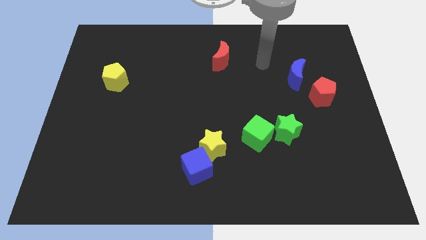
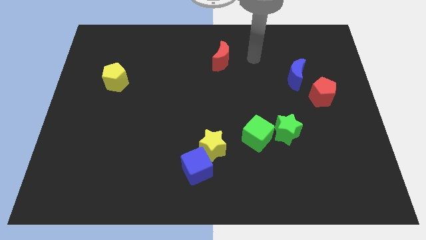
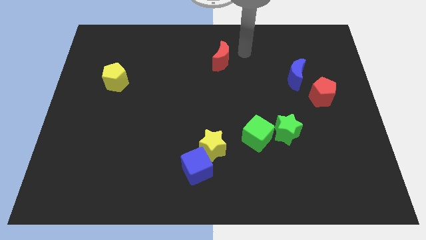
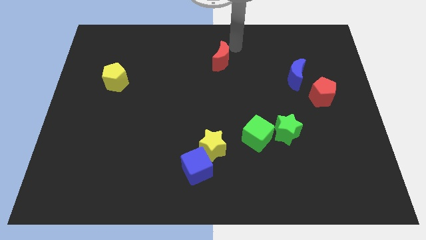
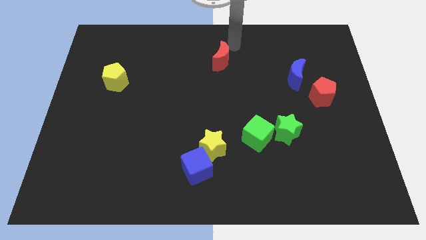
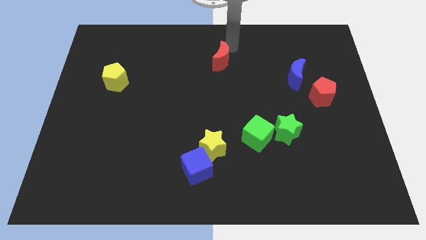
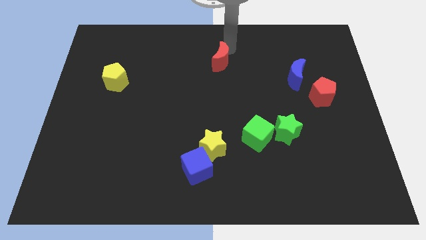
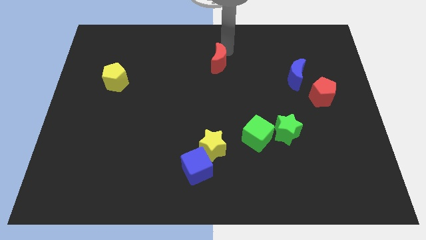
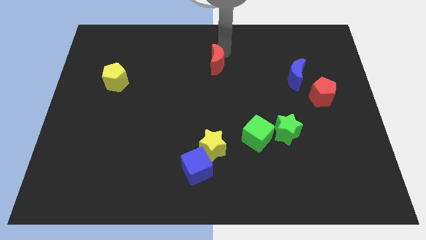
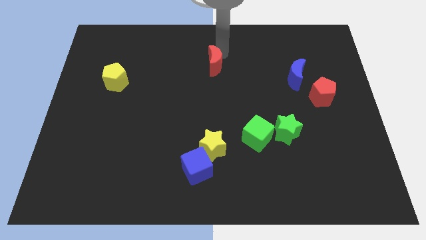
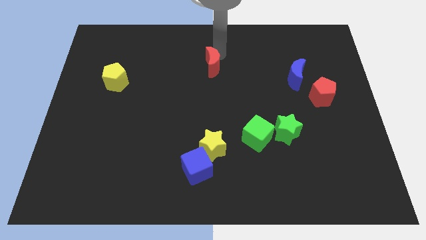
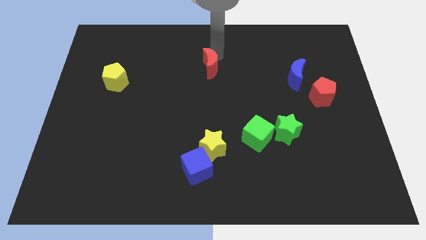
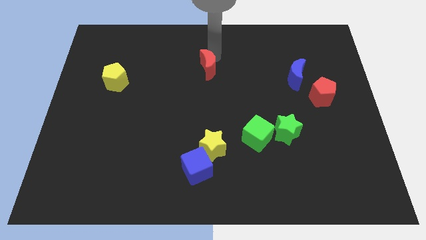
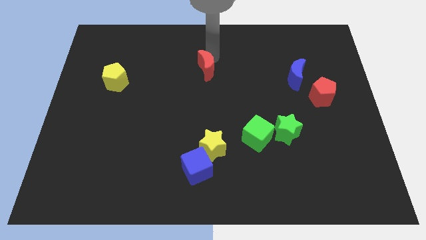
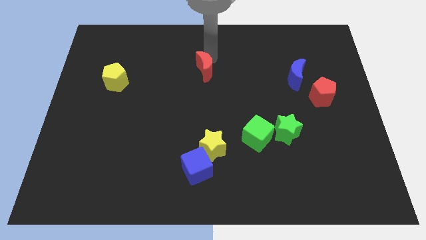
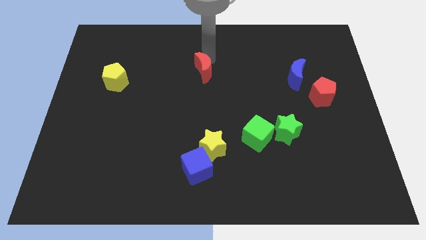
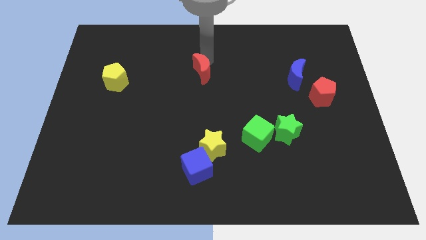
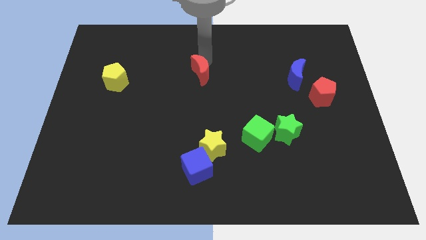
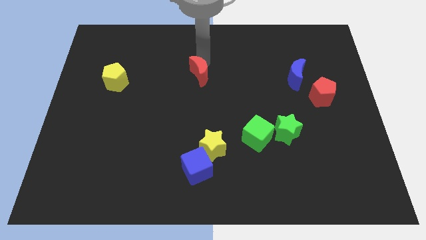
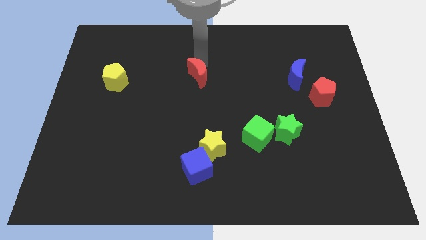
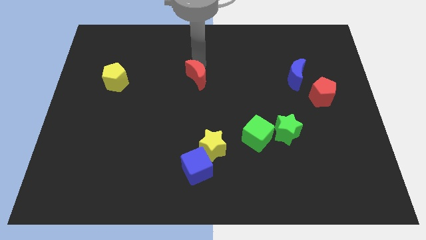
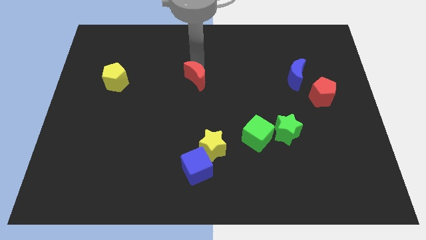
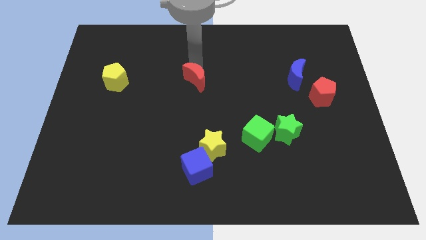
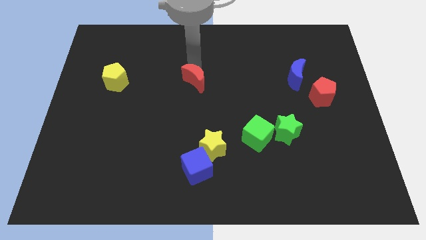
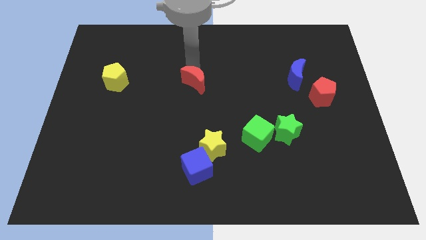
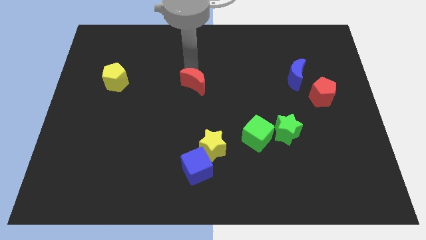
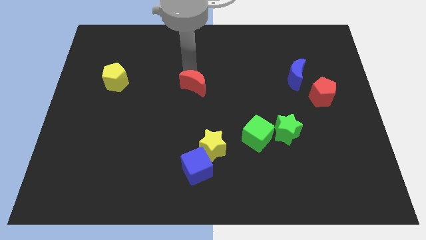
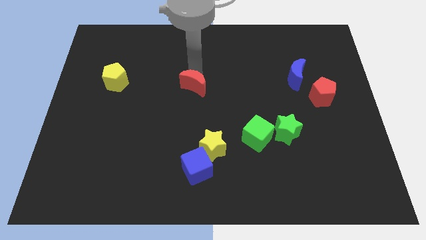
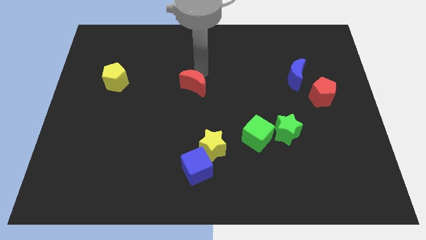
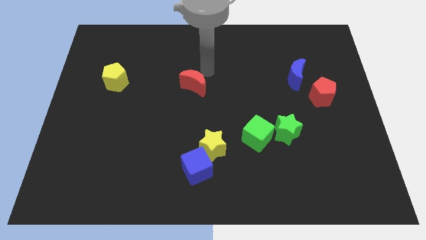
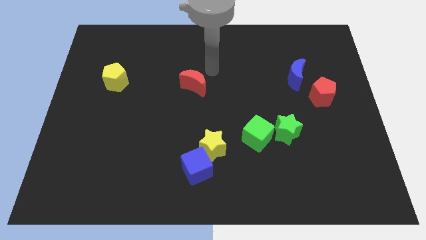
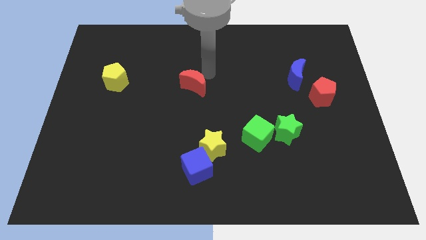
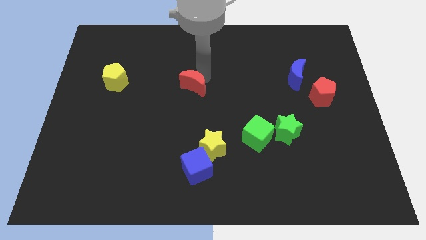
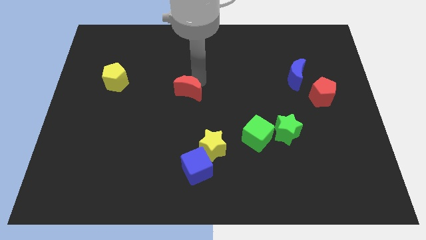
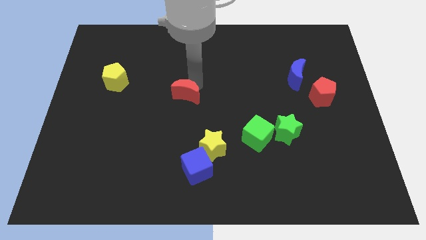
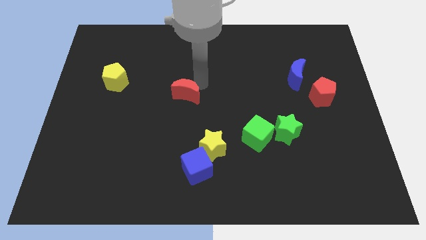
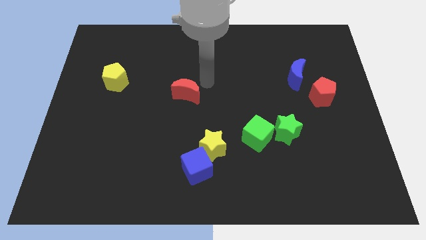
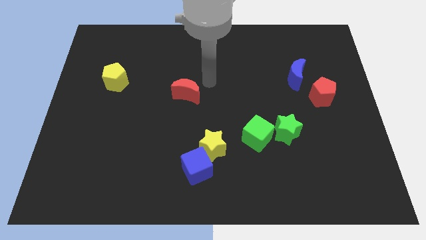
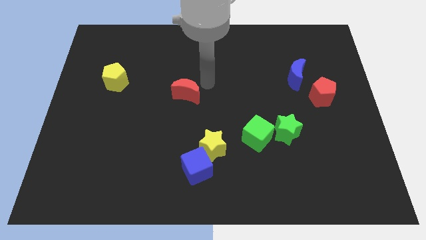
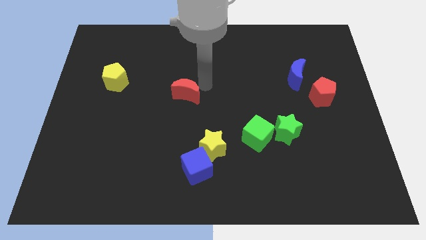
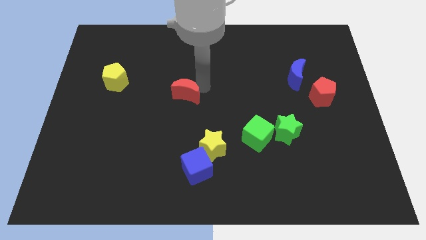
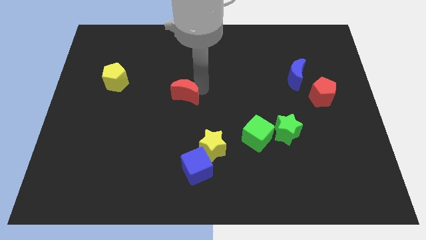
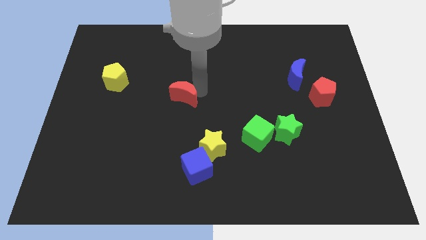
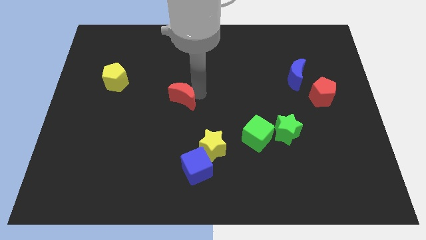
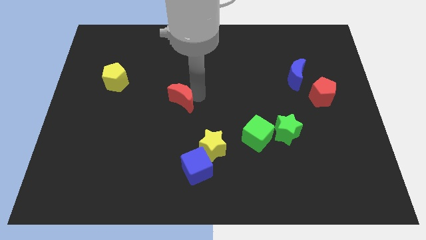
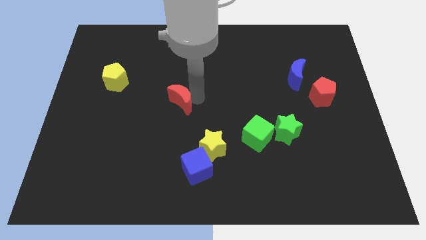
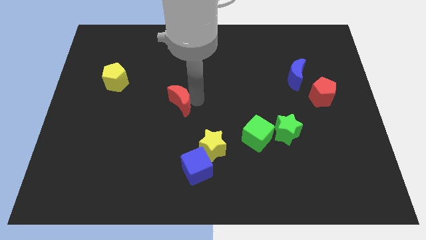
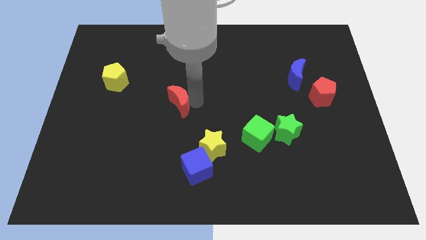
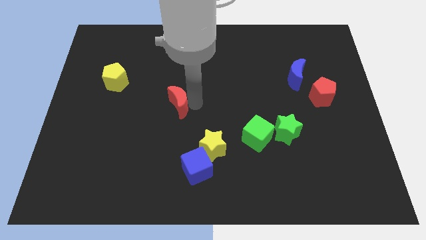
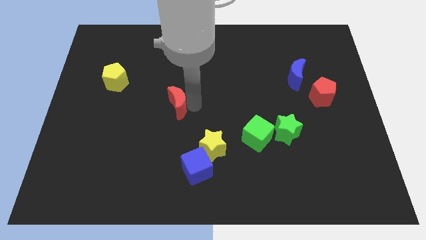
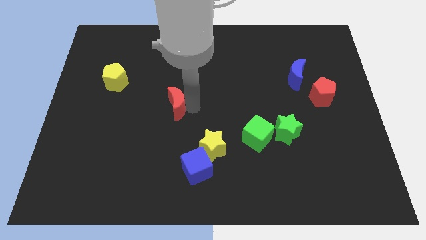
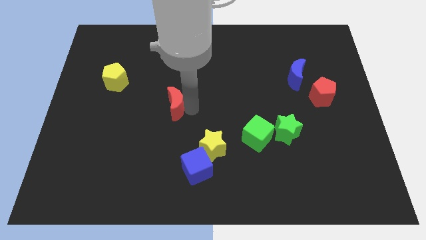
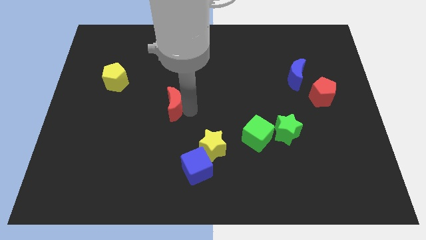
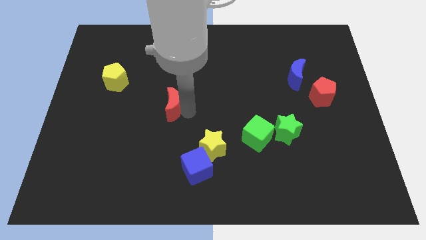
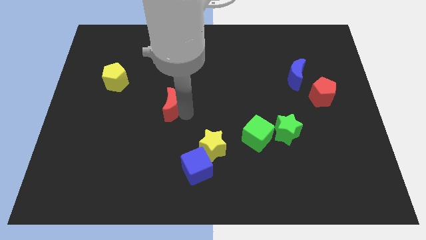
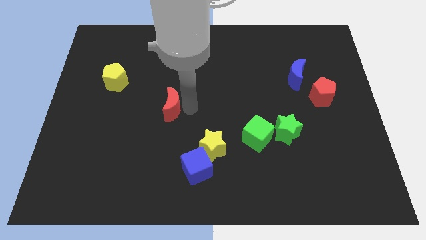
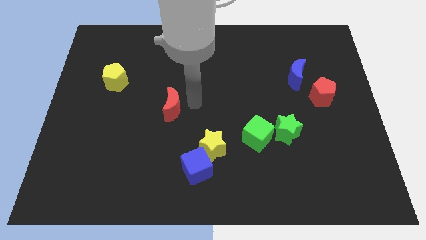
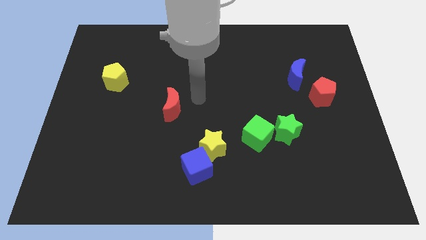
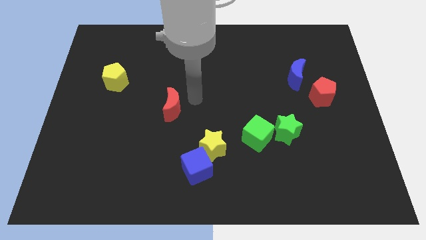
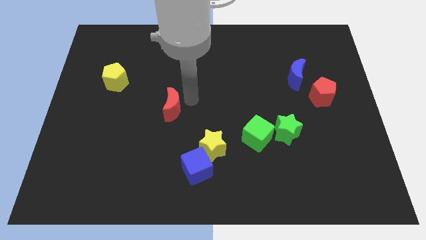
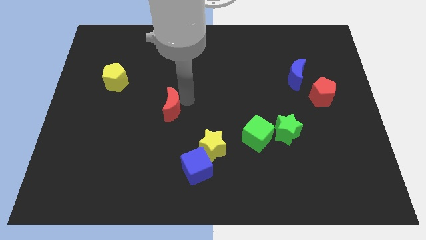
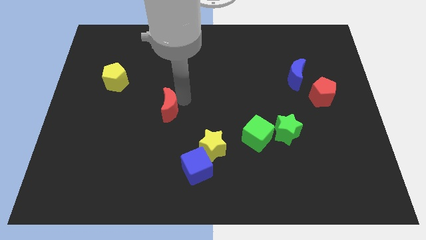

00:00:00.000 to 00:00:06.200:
move the red moon down and to the left diagonally

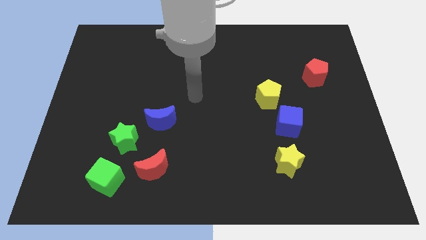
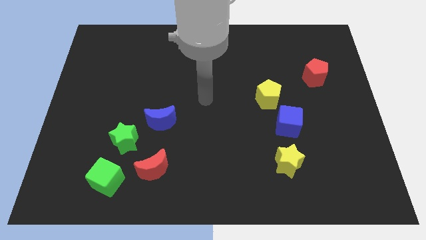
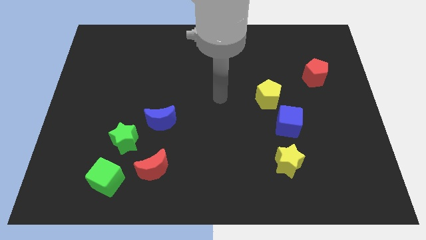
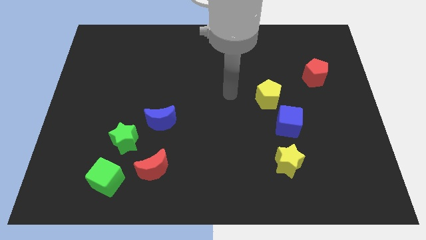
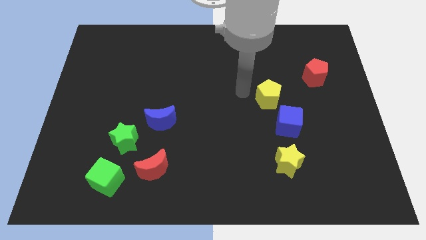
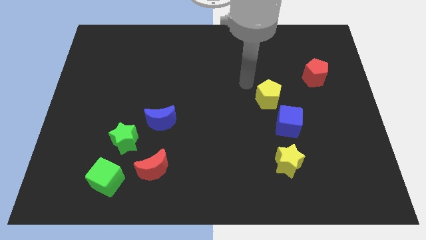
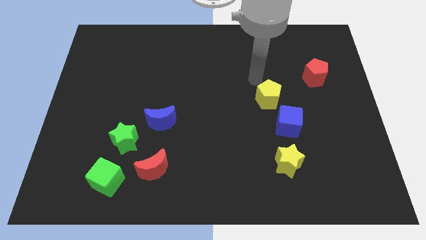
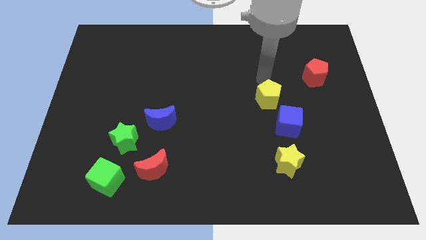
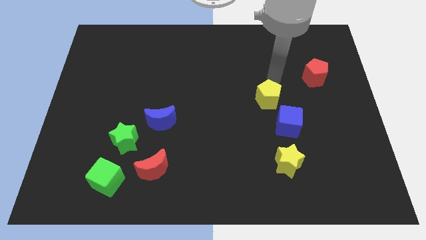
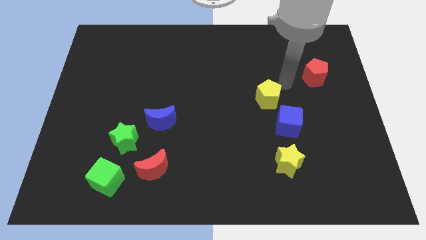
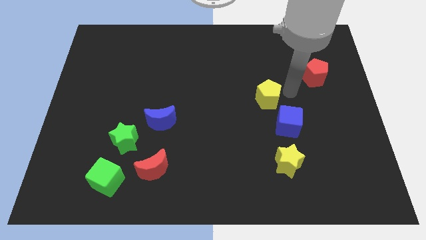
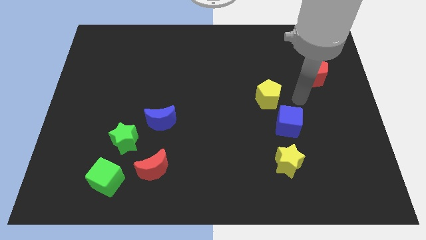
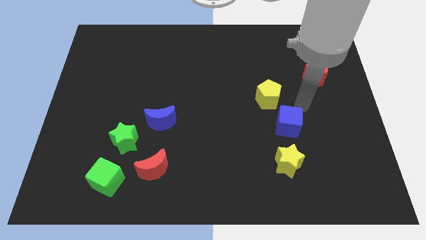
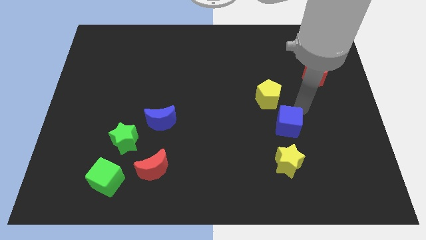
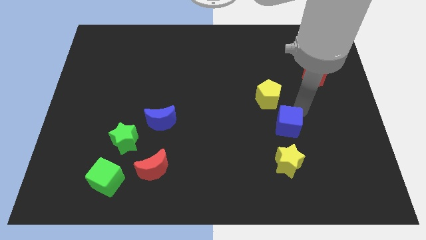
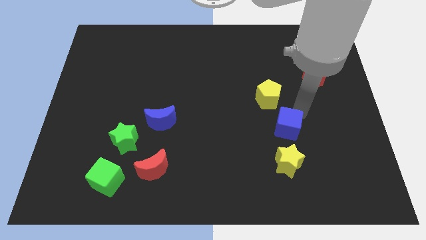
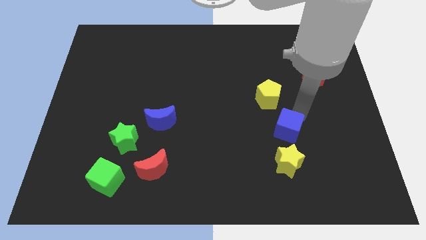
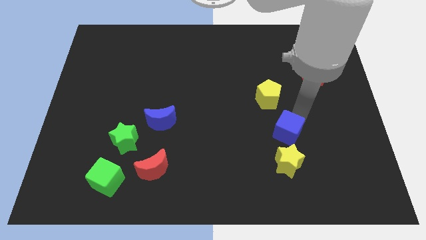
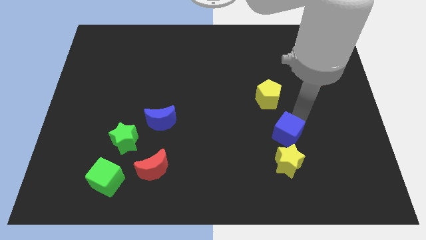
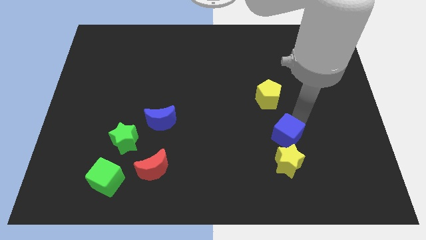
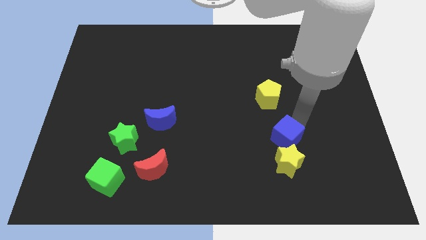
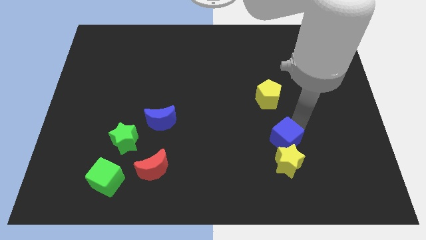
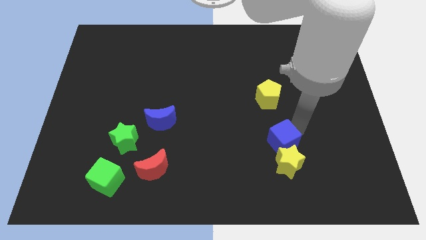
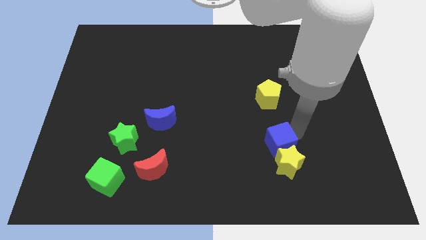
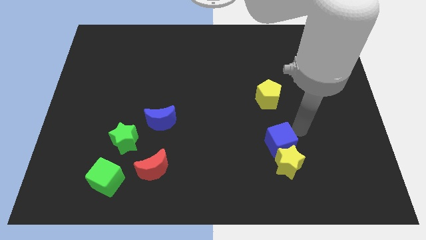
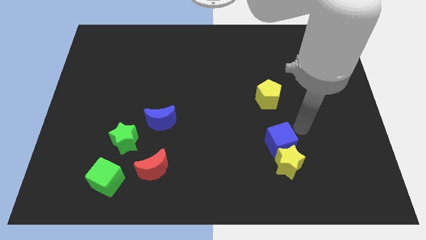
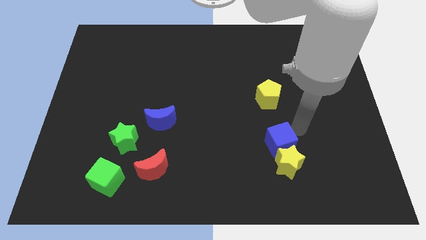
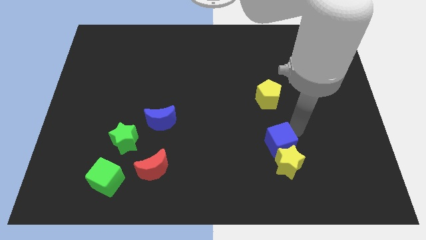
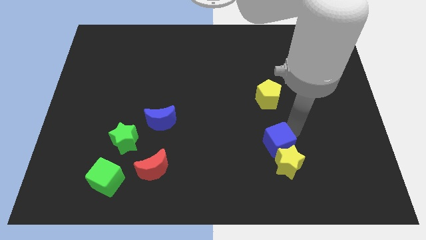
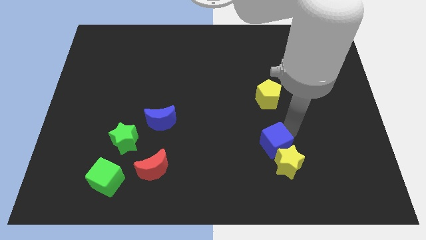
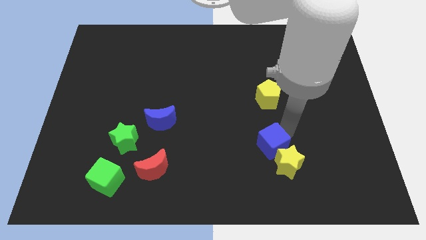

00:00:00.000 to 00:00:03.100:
move the blue cube slightly diagonally down and to the left
